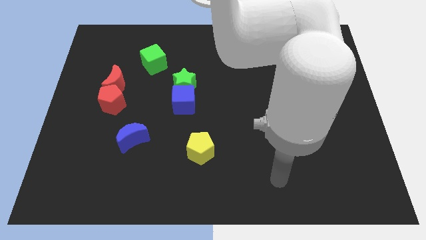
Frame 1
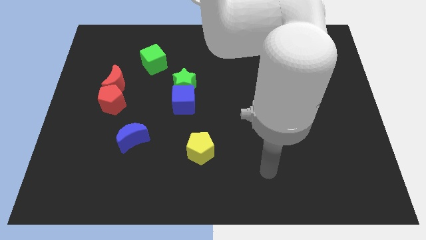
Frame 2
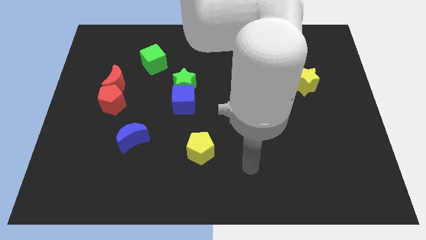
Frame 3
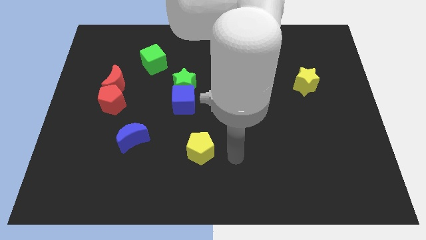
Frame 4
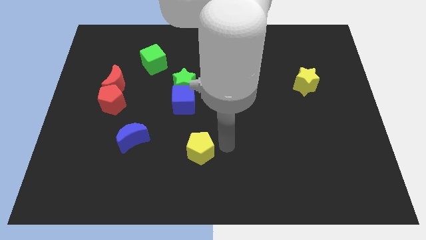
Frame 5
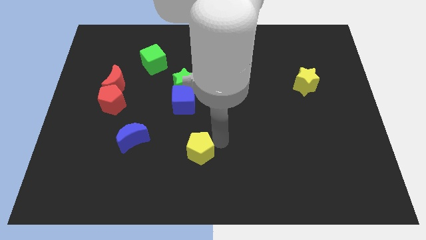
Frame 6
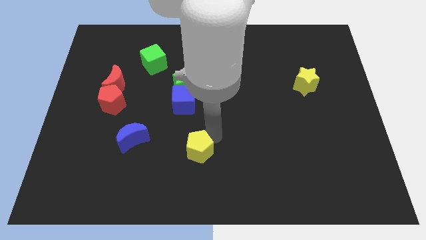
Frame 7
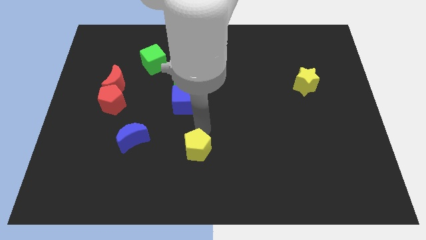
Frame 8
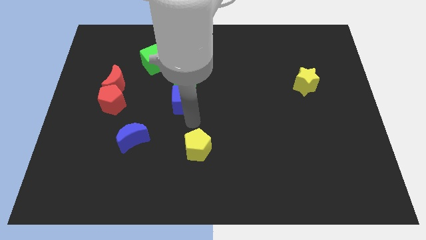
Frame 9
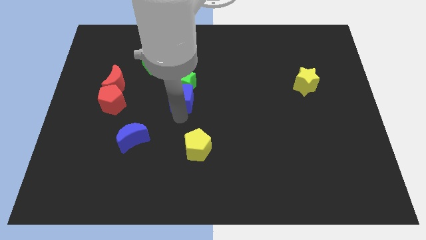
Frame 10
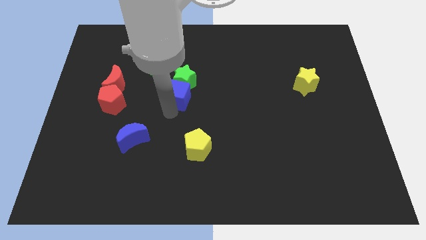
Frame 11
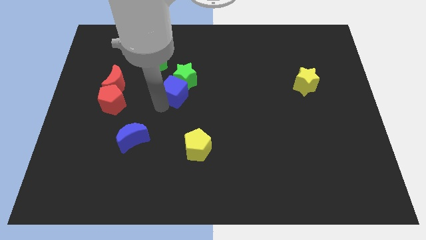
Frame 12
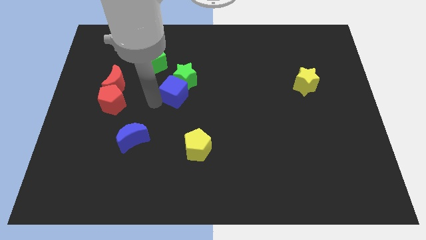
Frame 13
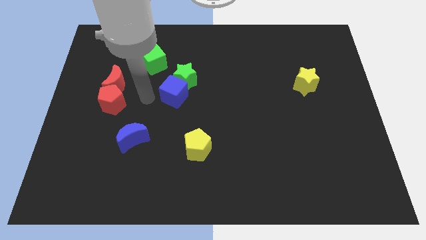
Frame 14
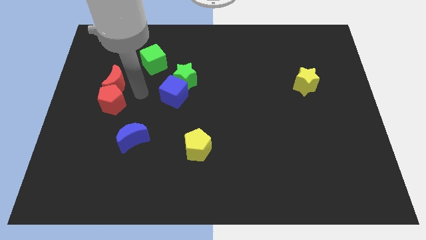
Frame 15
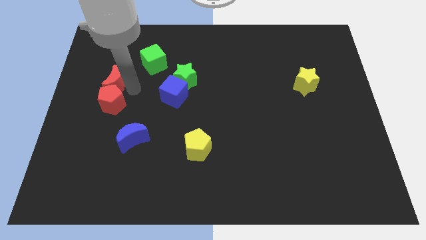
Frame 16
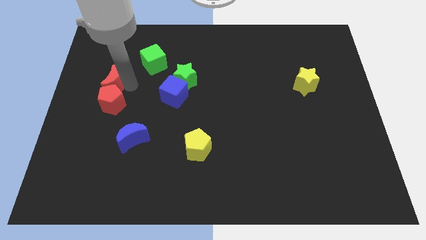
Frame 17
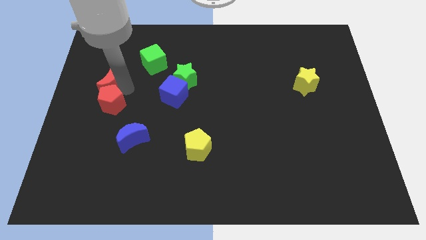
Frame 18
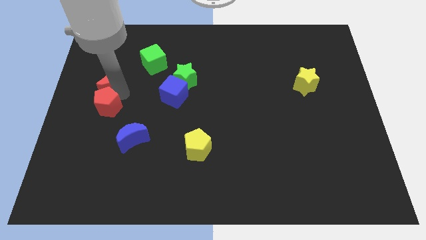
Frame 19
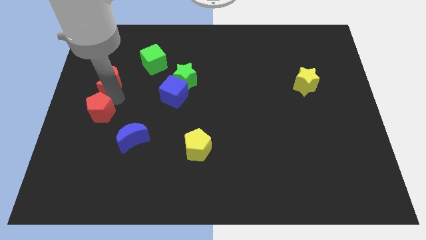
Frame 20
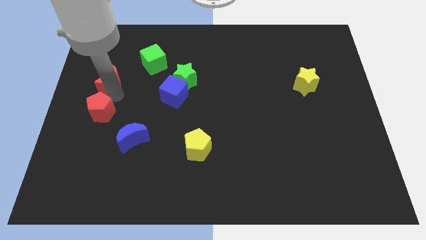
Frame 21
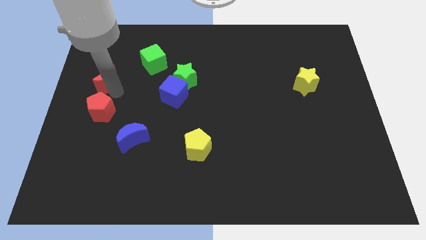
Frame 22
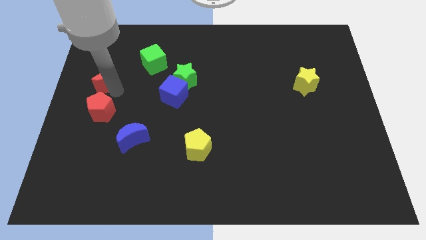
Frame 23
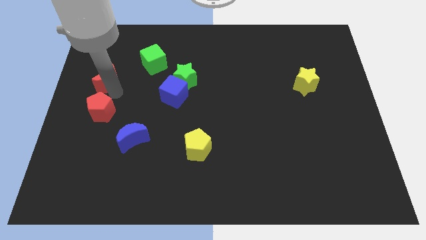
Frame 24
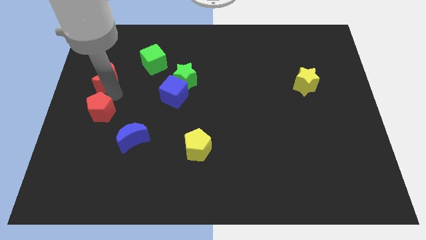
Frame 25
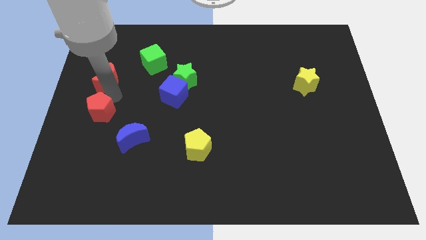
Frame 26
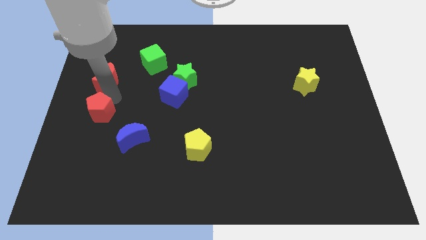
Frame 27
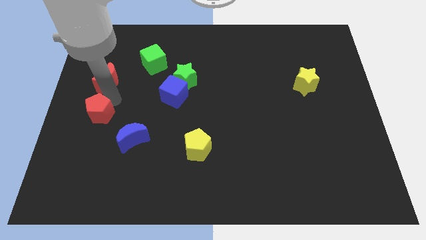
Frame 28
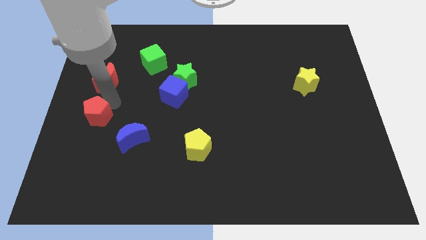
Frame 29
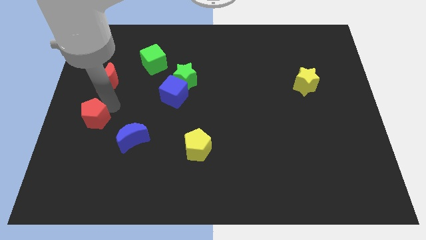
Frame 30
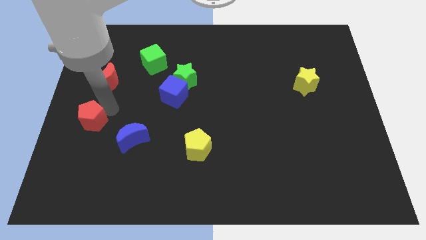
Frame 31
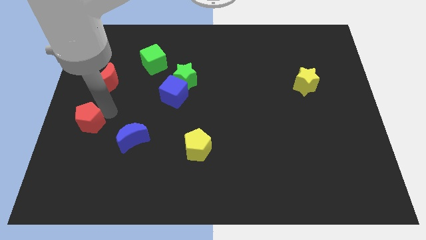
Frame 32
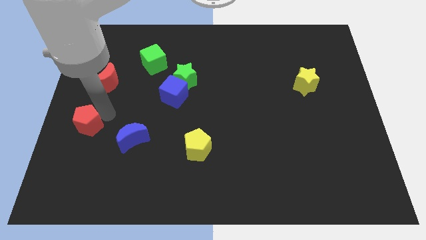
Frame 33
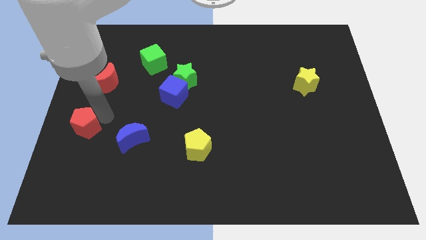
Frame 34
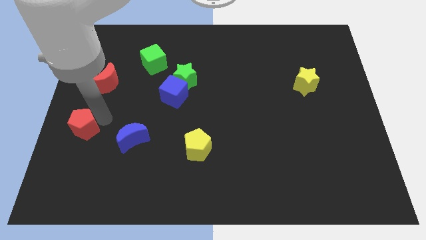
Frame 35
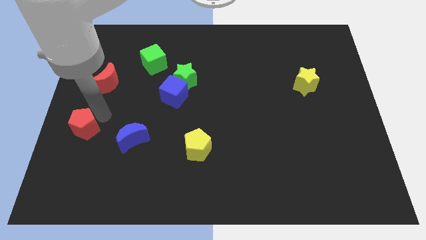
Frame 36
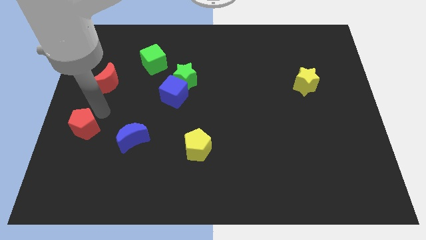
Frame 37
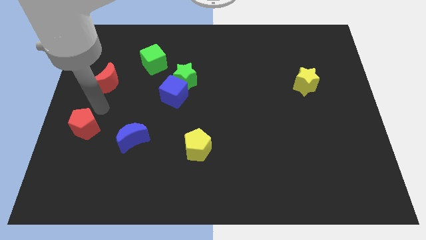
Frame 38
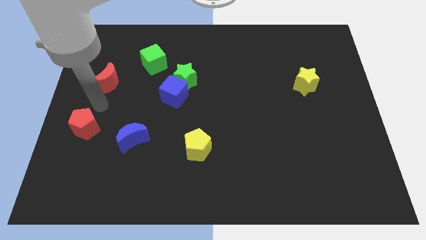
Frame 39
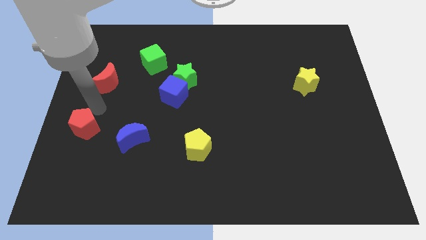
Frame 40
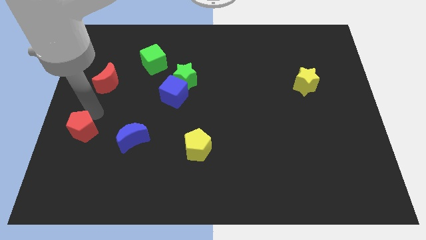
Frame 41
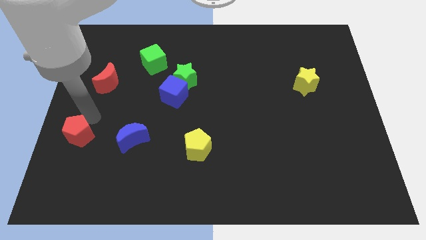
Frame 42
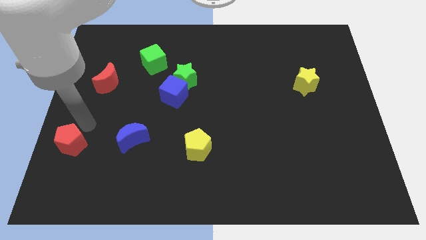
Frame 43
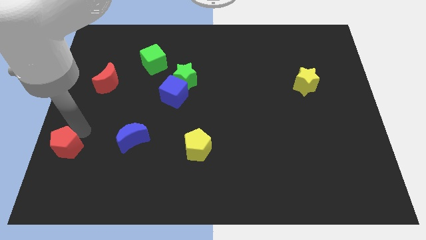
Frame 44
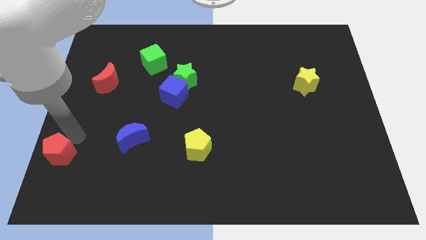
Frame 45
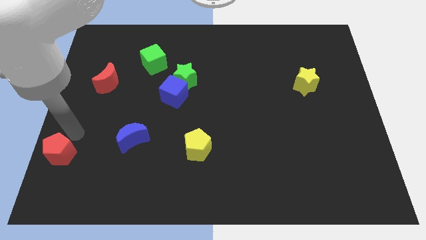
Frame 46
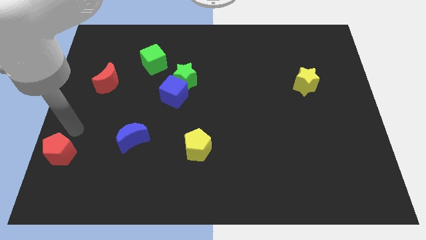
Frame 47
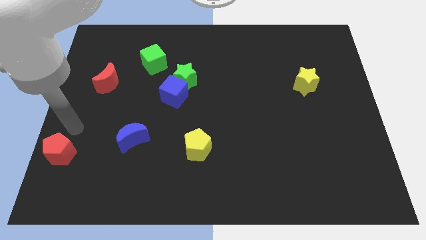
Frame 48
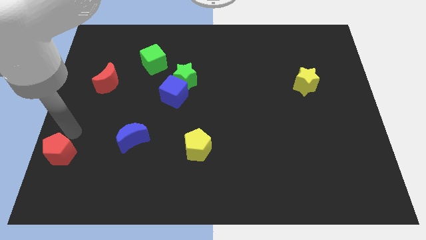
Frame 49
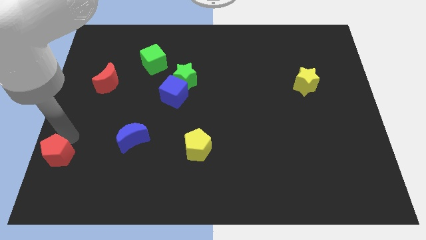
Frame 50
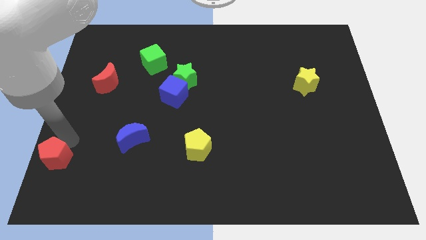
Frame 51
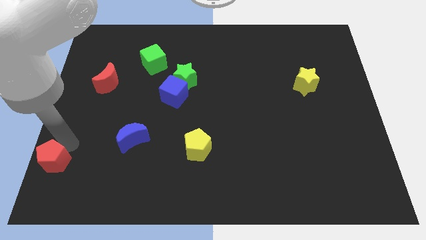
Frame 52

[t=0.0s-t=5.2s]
put the red pentagon to the bottom left corner

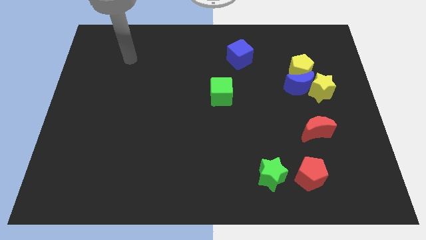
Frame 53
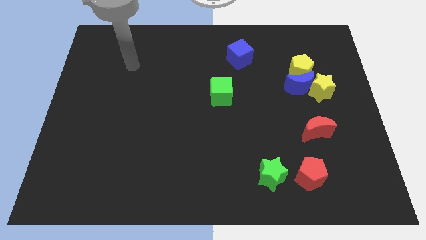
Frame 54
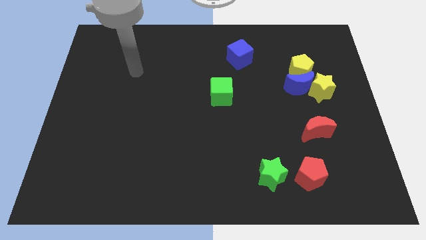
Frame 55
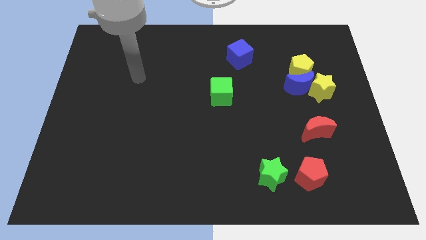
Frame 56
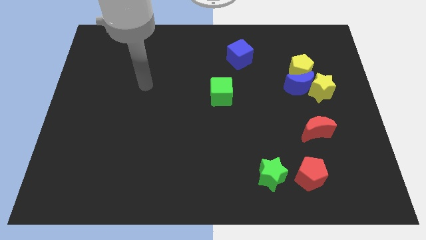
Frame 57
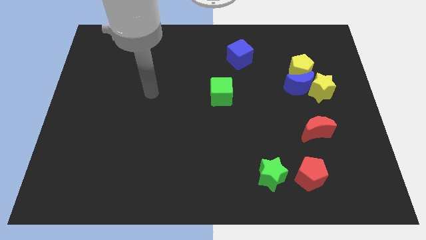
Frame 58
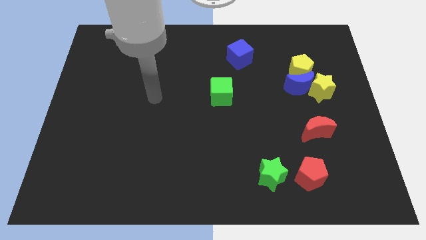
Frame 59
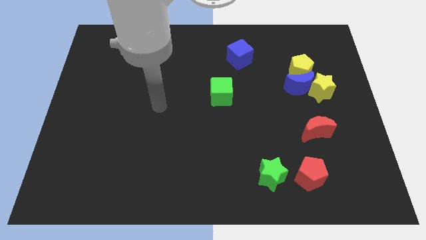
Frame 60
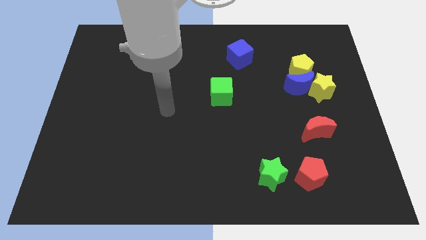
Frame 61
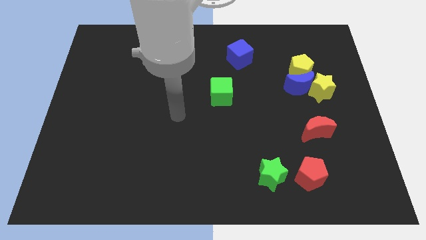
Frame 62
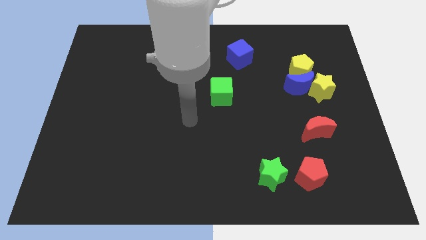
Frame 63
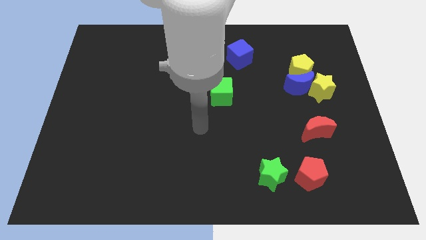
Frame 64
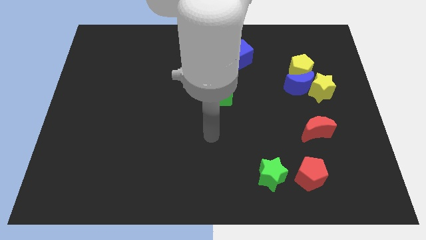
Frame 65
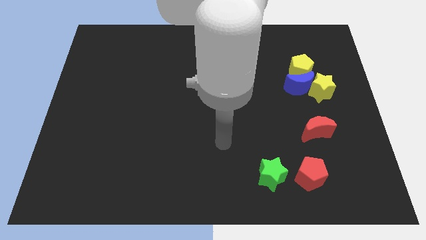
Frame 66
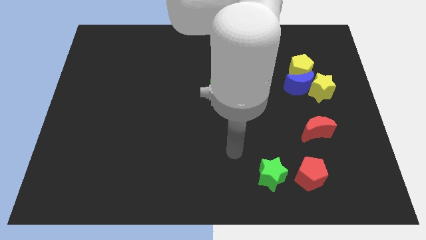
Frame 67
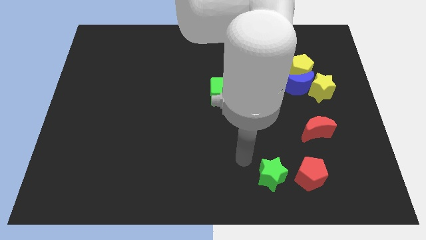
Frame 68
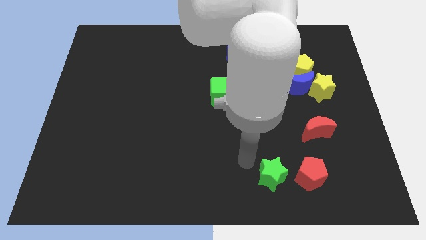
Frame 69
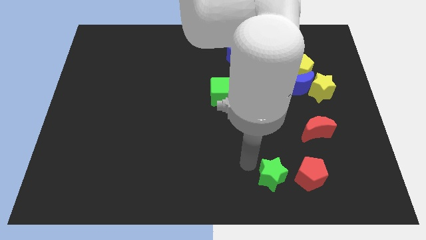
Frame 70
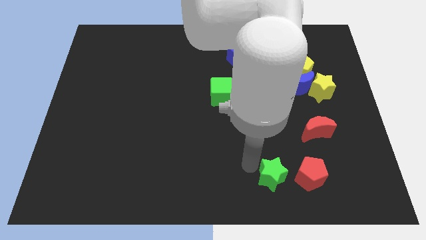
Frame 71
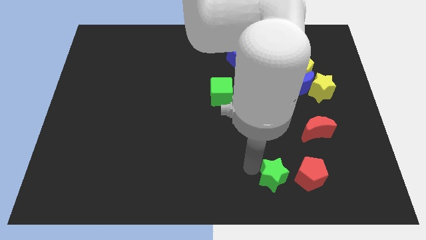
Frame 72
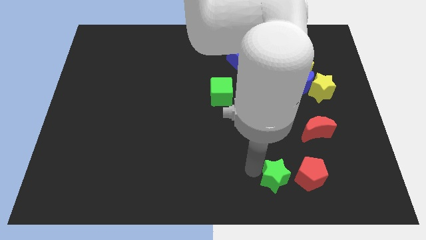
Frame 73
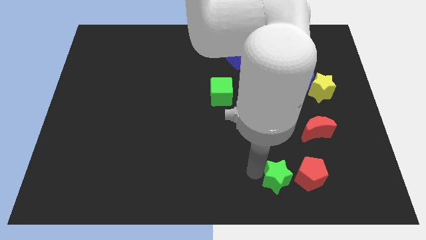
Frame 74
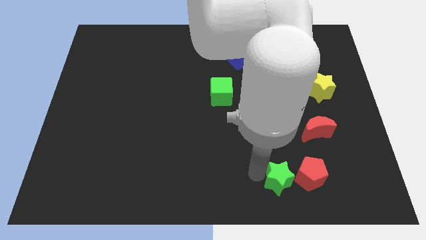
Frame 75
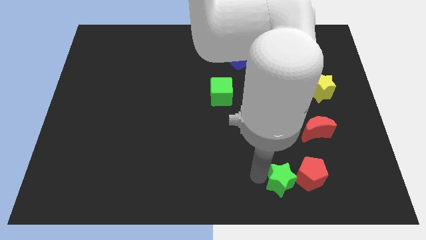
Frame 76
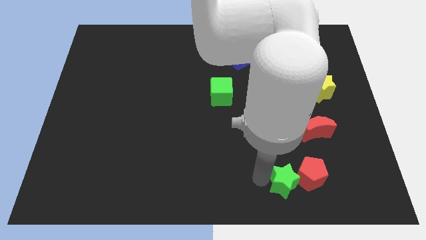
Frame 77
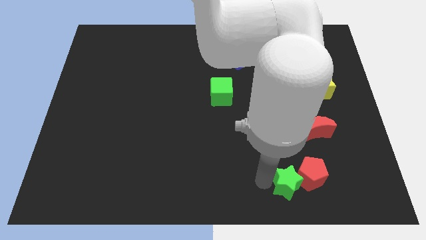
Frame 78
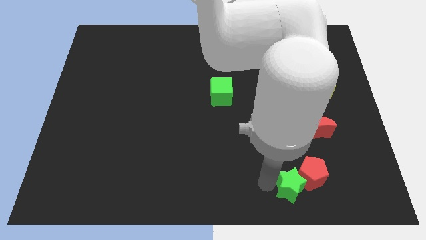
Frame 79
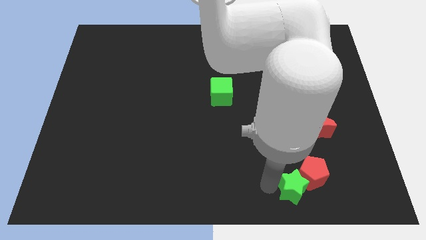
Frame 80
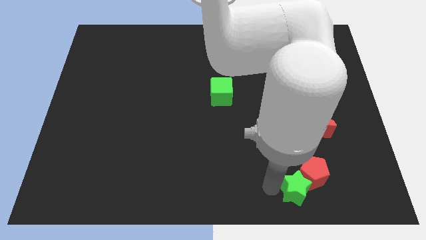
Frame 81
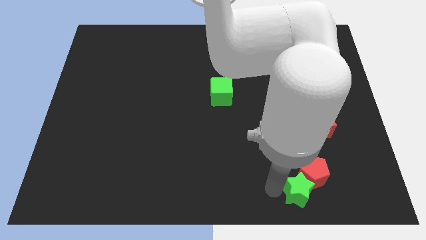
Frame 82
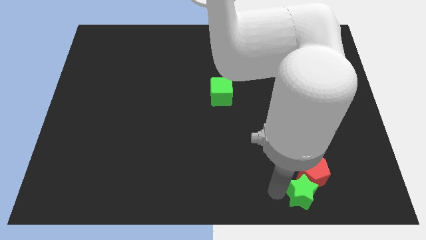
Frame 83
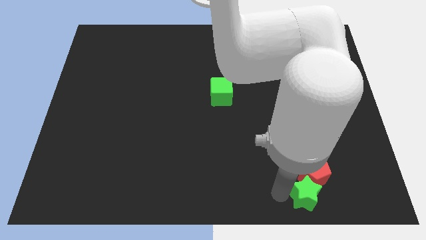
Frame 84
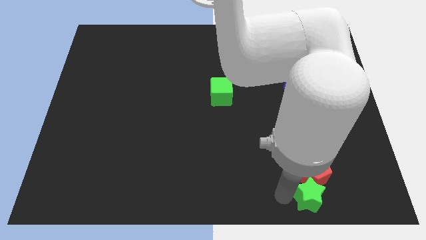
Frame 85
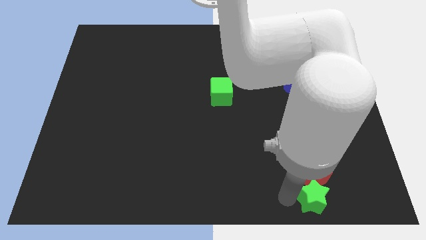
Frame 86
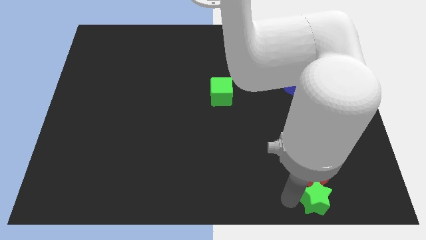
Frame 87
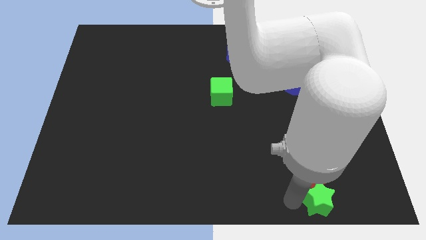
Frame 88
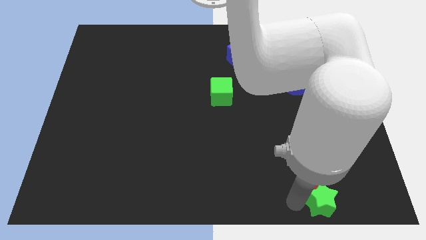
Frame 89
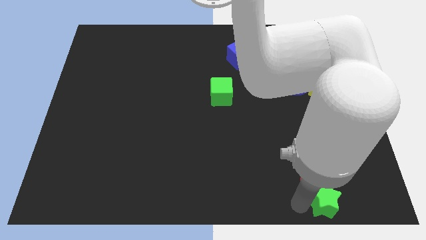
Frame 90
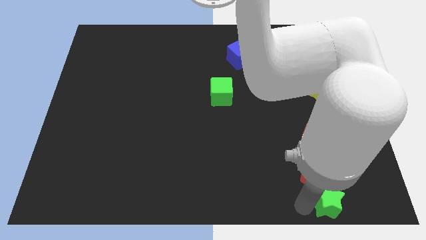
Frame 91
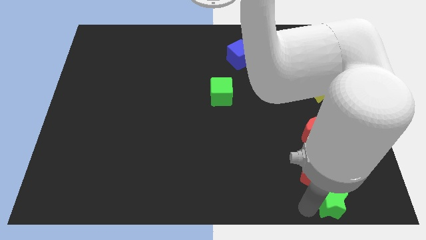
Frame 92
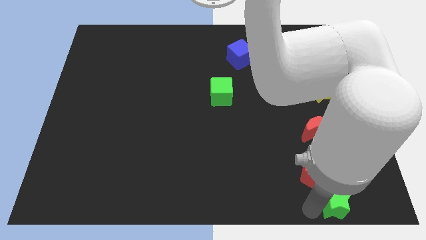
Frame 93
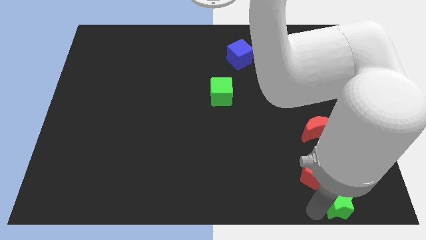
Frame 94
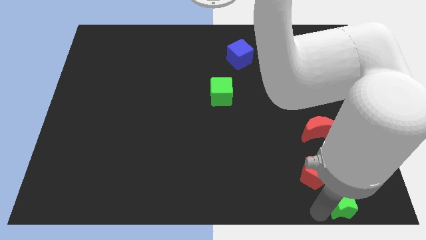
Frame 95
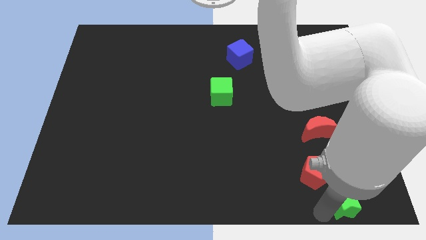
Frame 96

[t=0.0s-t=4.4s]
move the green star to the bottom right corner
